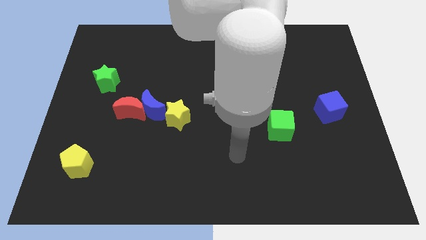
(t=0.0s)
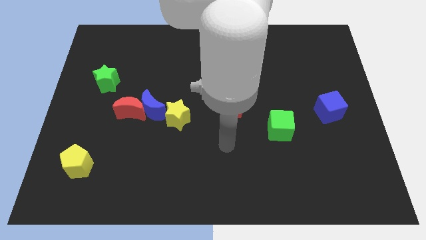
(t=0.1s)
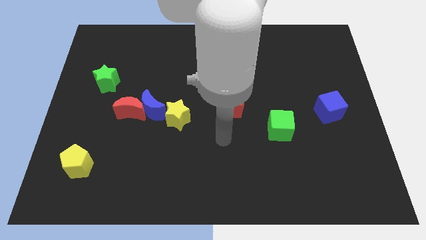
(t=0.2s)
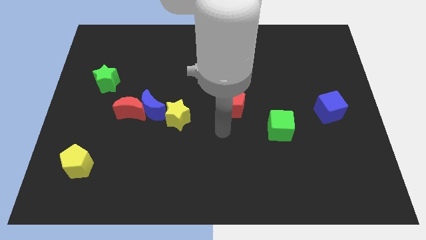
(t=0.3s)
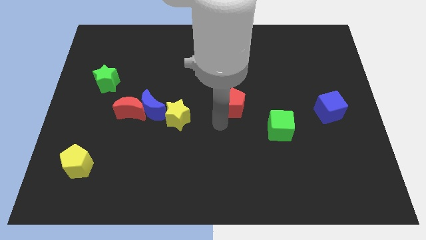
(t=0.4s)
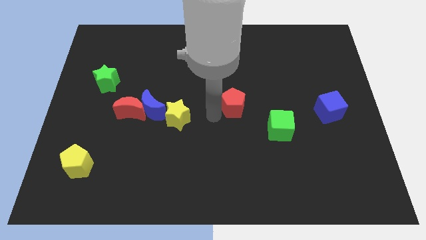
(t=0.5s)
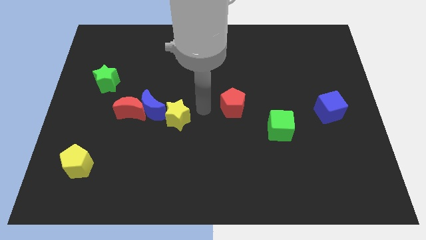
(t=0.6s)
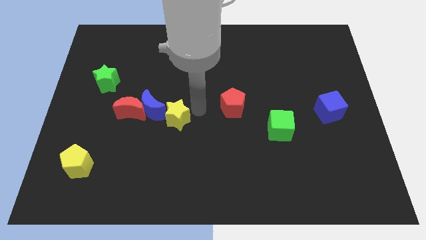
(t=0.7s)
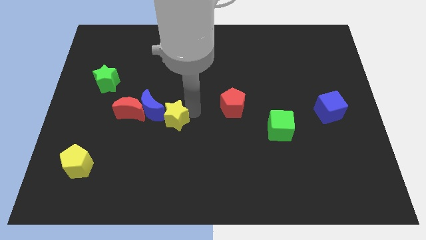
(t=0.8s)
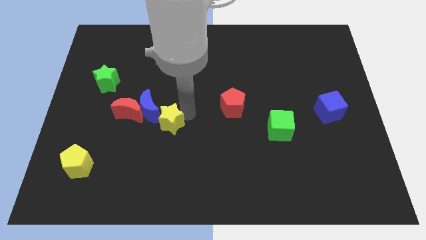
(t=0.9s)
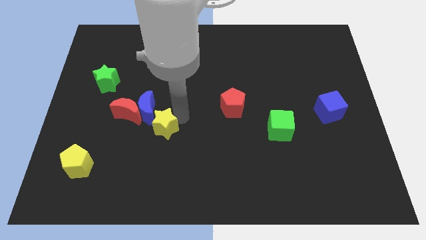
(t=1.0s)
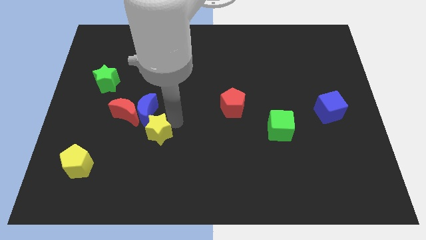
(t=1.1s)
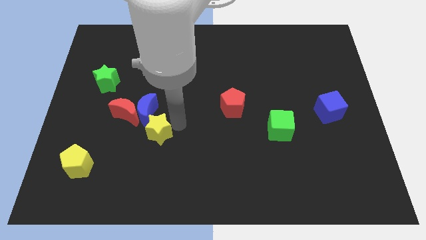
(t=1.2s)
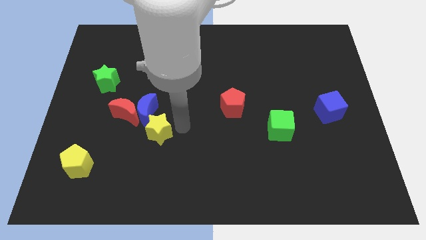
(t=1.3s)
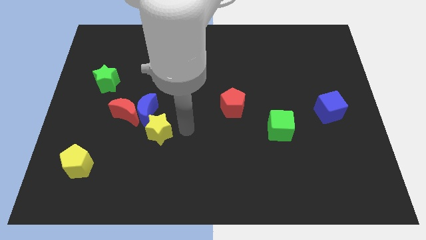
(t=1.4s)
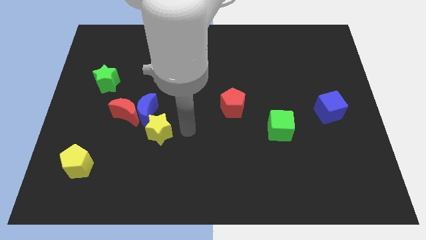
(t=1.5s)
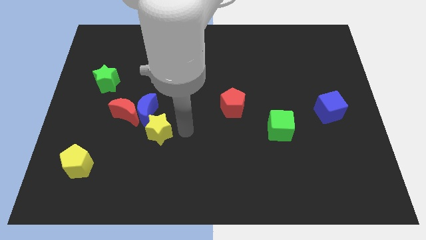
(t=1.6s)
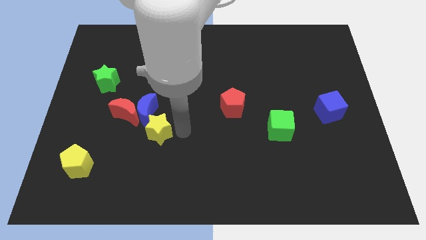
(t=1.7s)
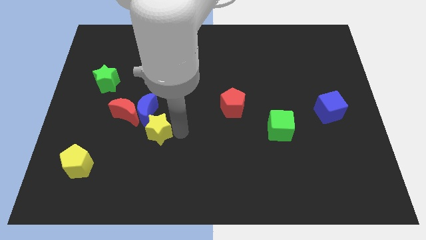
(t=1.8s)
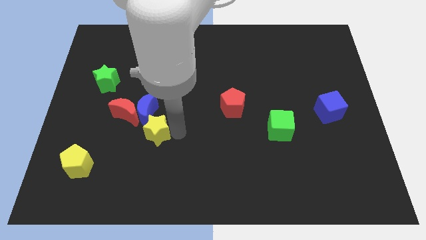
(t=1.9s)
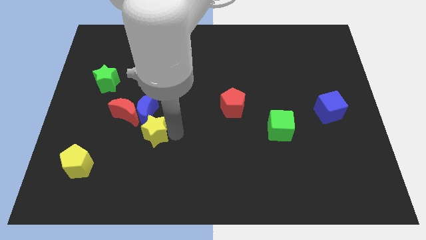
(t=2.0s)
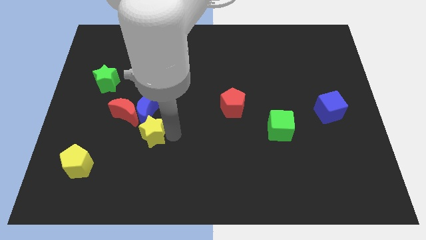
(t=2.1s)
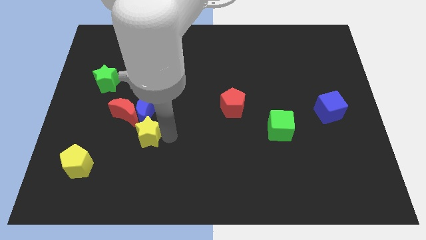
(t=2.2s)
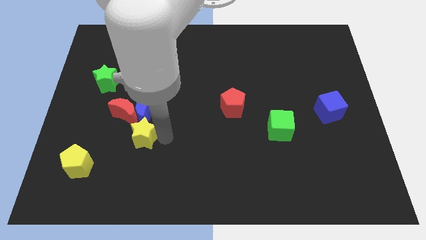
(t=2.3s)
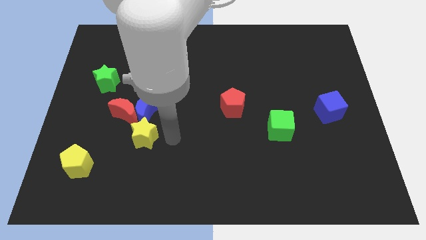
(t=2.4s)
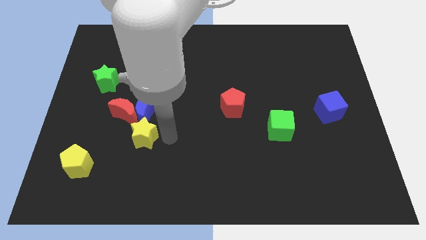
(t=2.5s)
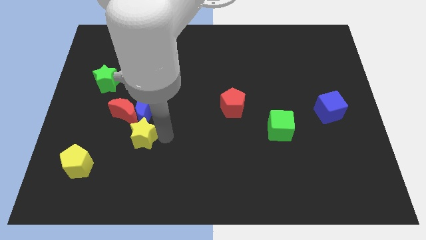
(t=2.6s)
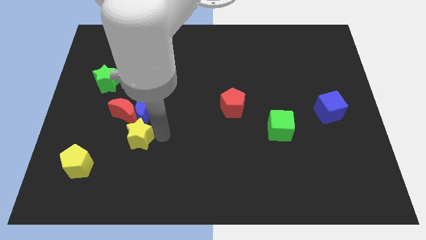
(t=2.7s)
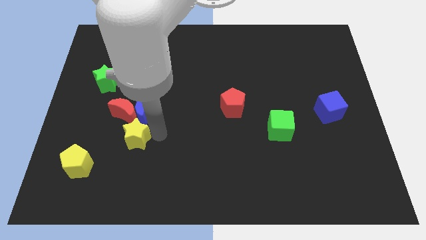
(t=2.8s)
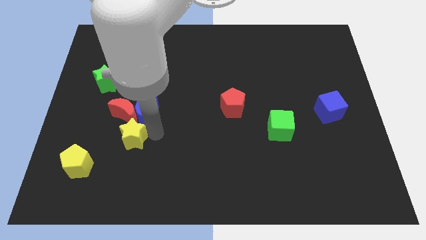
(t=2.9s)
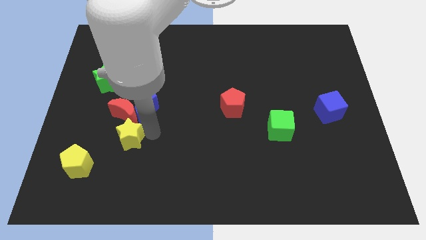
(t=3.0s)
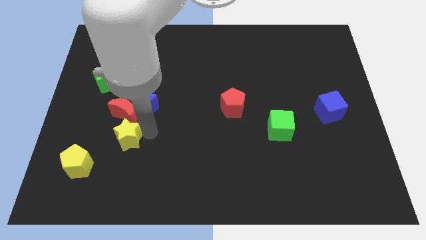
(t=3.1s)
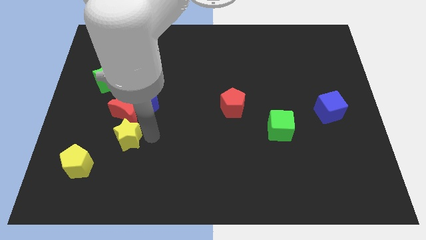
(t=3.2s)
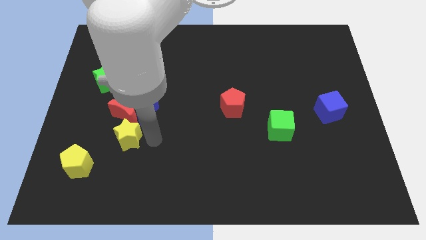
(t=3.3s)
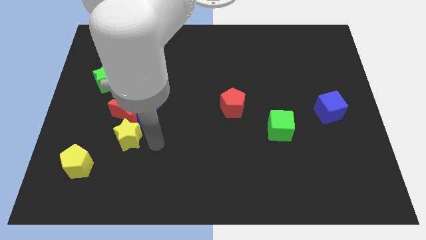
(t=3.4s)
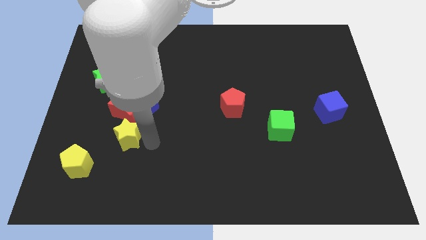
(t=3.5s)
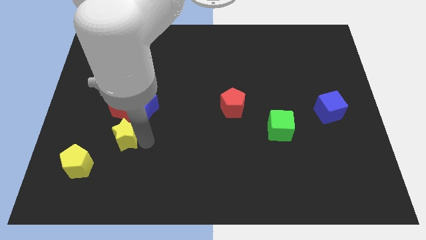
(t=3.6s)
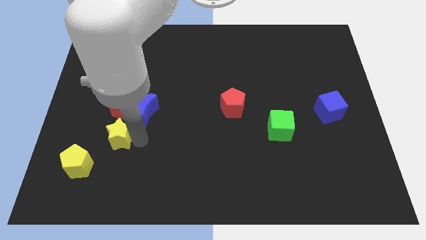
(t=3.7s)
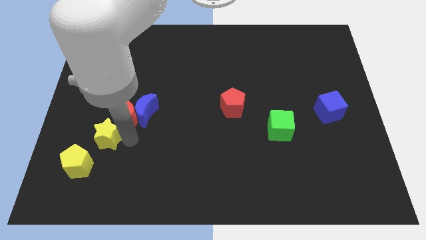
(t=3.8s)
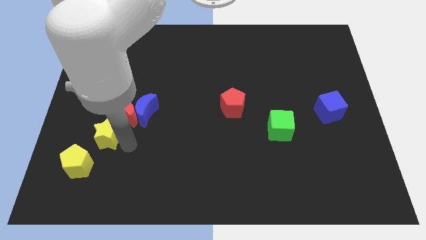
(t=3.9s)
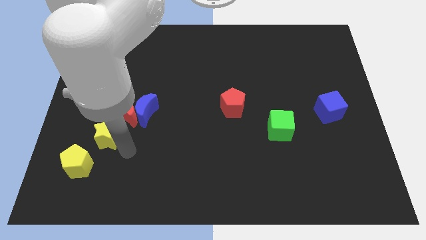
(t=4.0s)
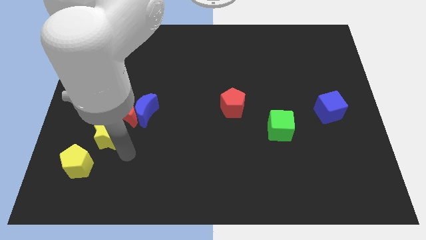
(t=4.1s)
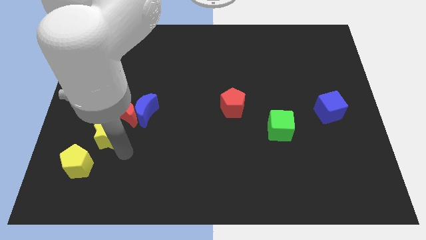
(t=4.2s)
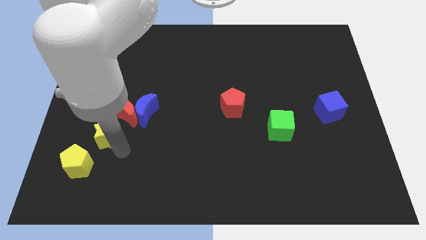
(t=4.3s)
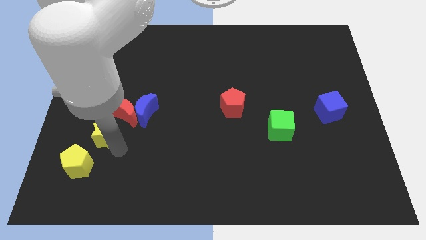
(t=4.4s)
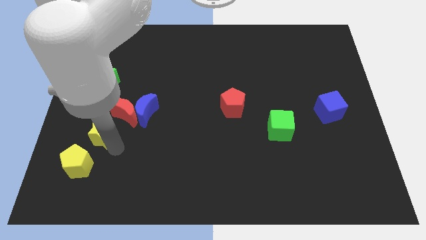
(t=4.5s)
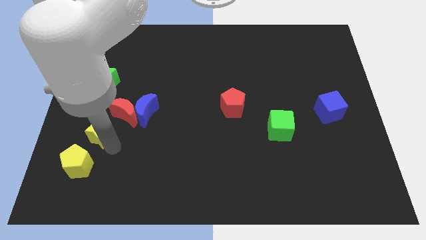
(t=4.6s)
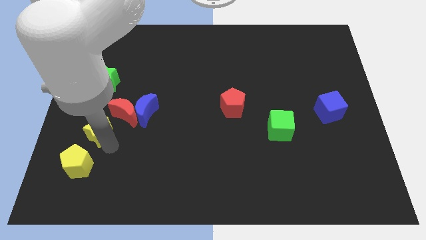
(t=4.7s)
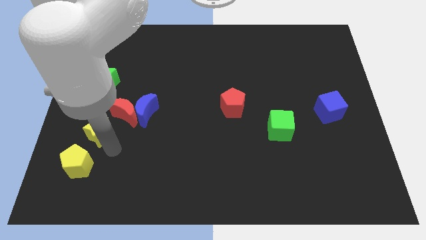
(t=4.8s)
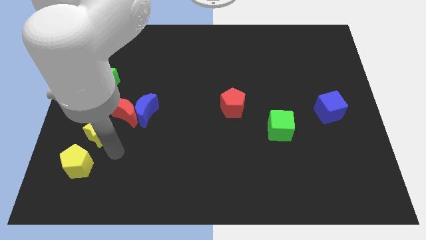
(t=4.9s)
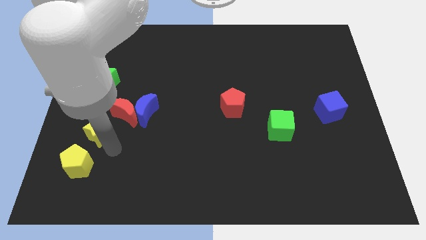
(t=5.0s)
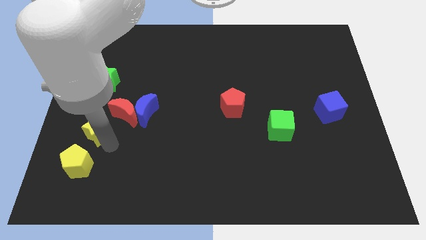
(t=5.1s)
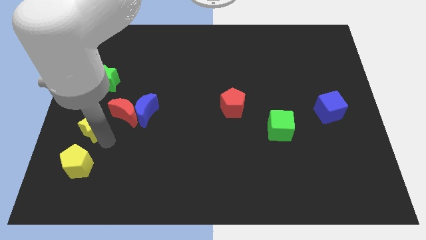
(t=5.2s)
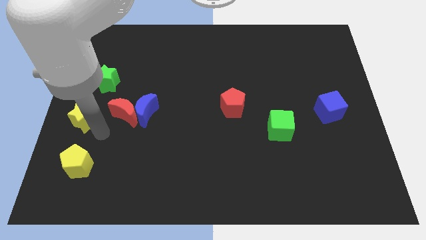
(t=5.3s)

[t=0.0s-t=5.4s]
move the yellow star to the left side

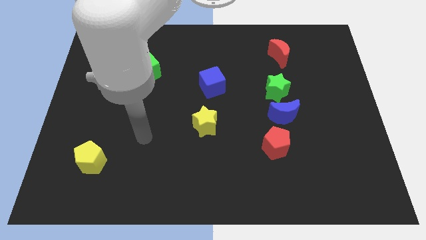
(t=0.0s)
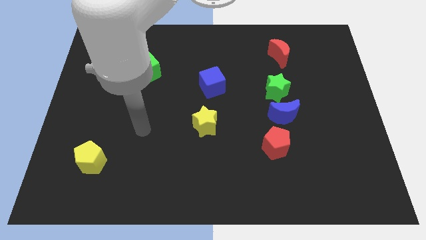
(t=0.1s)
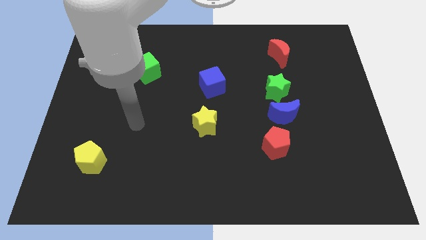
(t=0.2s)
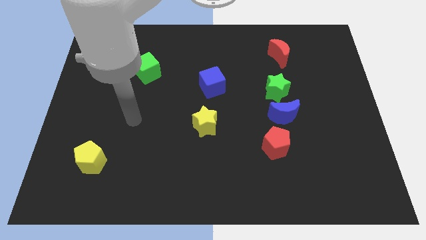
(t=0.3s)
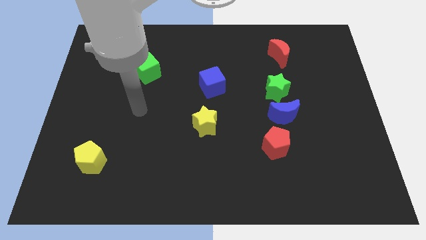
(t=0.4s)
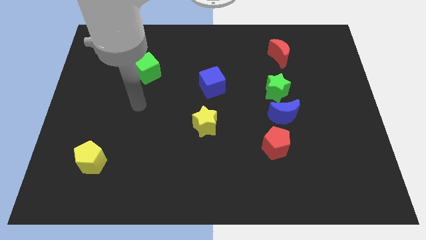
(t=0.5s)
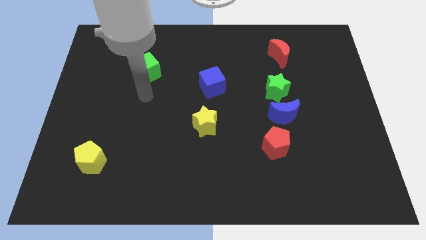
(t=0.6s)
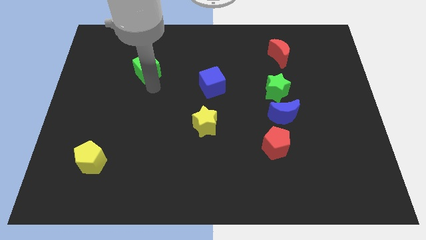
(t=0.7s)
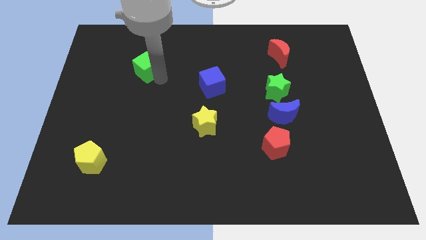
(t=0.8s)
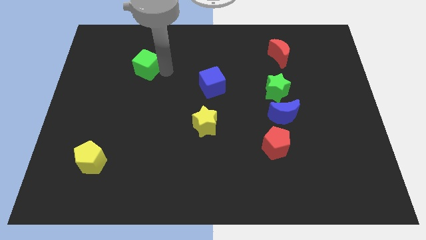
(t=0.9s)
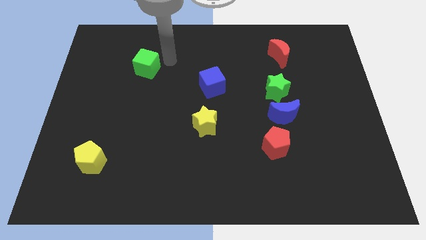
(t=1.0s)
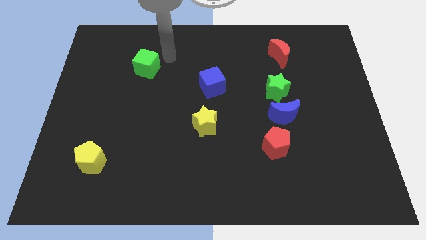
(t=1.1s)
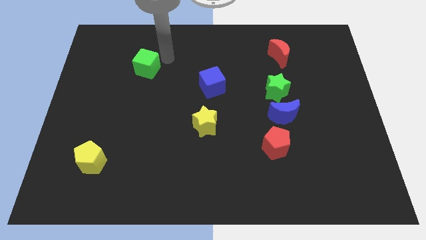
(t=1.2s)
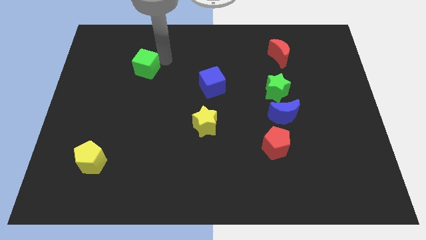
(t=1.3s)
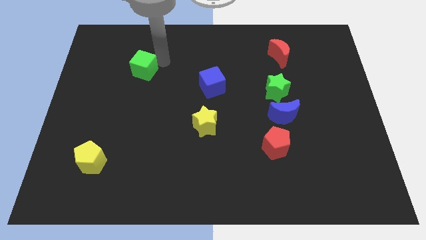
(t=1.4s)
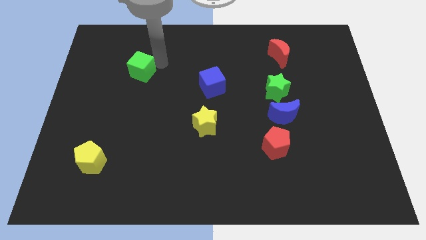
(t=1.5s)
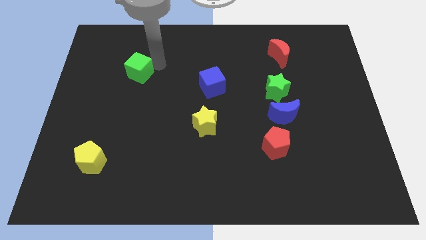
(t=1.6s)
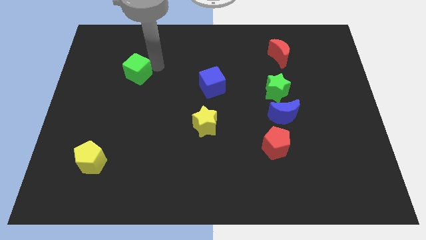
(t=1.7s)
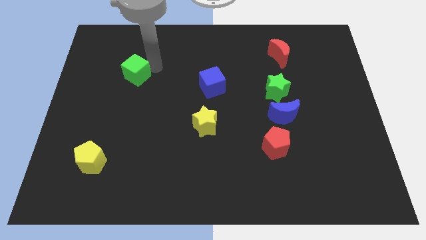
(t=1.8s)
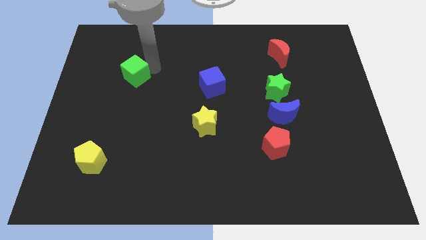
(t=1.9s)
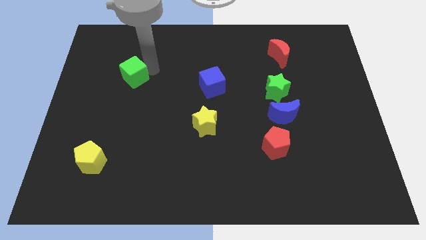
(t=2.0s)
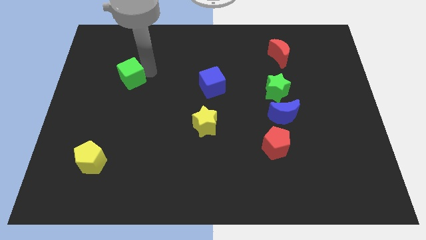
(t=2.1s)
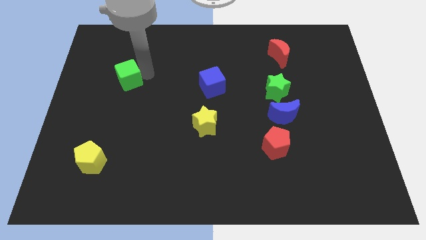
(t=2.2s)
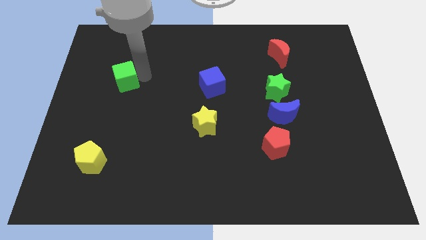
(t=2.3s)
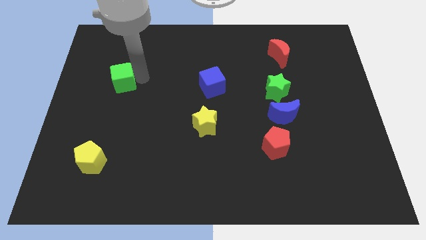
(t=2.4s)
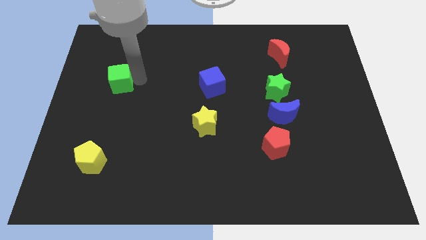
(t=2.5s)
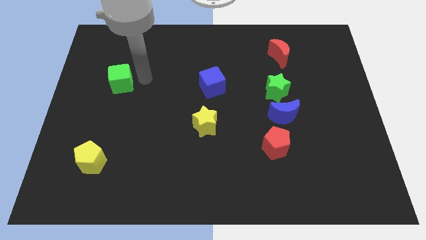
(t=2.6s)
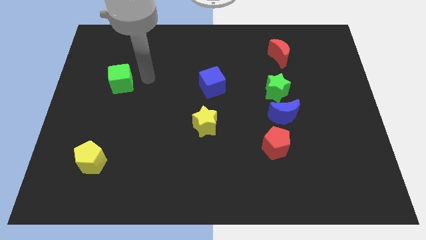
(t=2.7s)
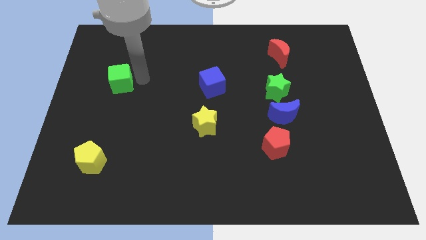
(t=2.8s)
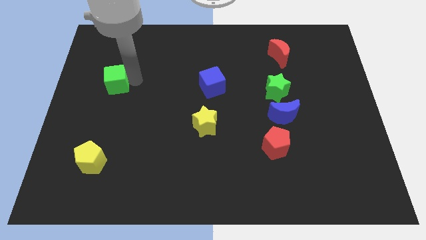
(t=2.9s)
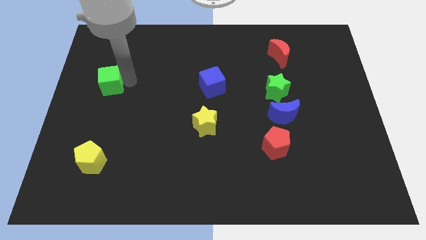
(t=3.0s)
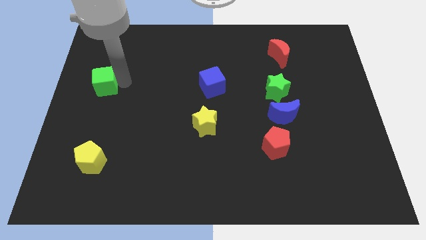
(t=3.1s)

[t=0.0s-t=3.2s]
slide the green cube to the center left
